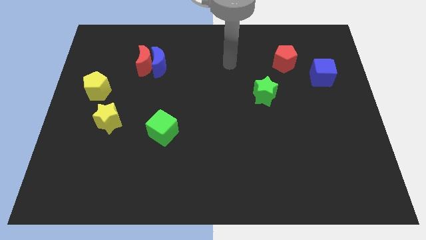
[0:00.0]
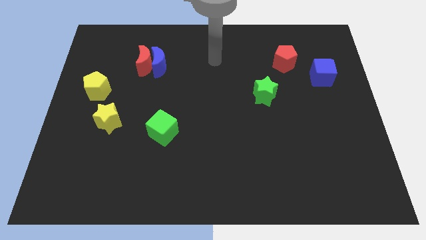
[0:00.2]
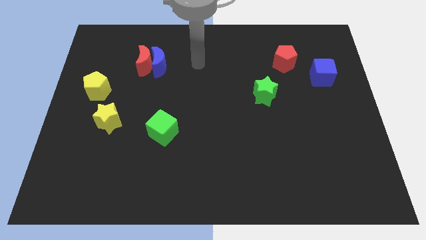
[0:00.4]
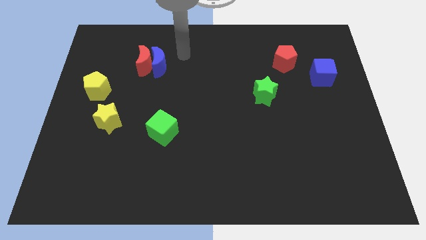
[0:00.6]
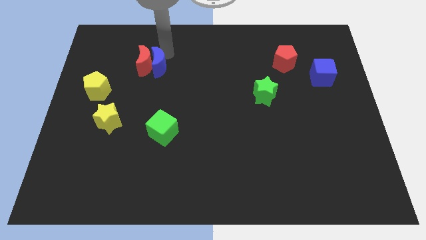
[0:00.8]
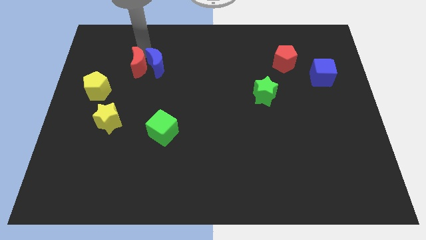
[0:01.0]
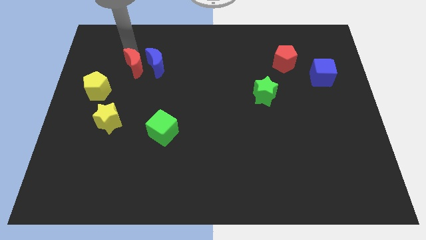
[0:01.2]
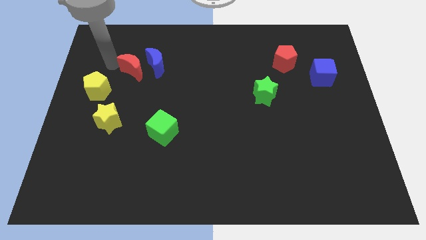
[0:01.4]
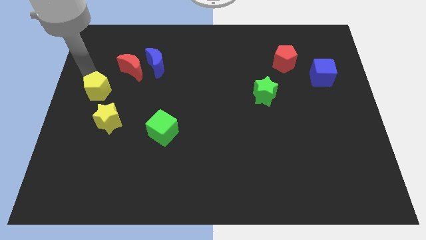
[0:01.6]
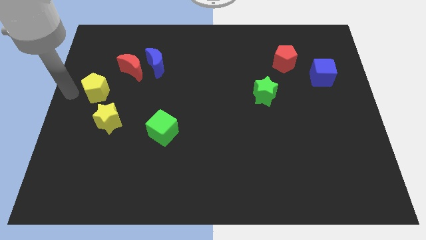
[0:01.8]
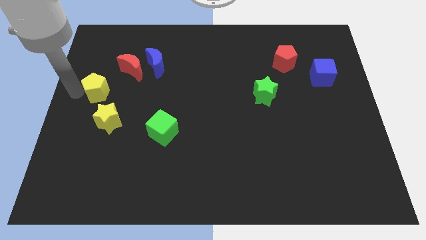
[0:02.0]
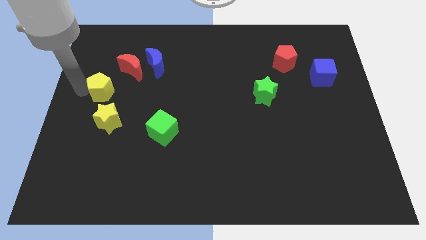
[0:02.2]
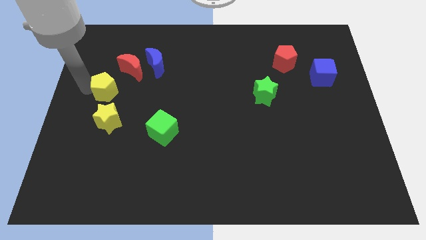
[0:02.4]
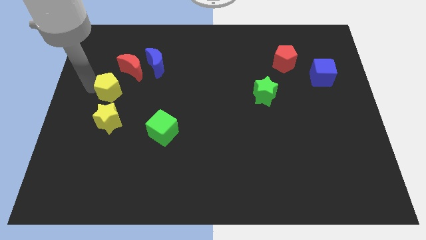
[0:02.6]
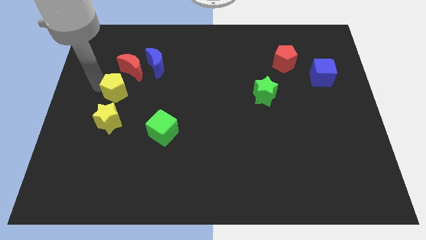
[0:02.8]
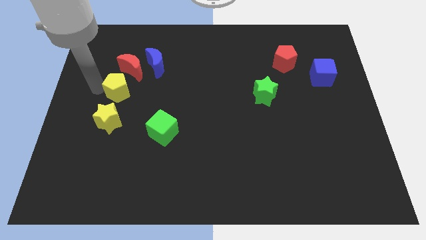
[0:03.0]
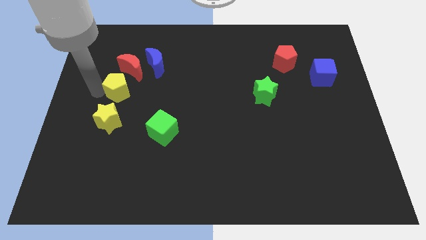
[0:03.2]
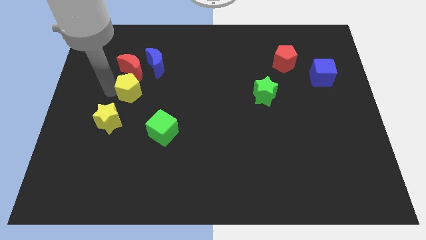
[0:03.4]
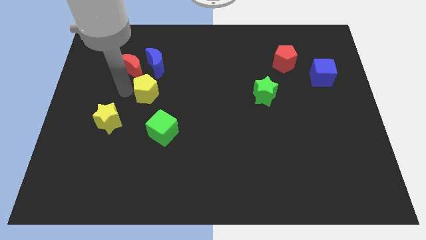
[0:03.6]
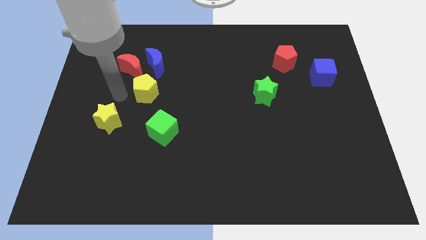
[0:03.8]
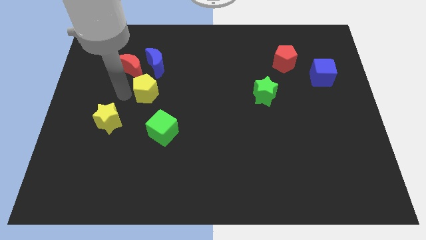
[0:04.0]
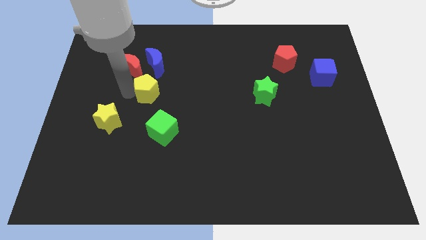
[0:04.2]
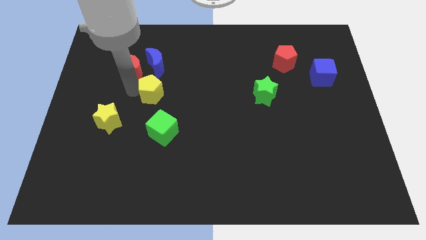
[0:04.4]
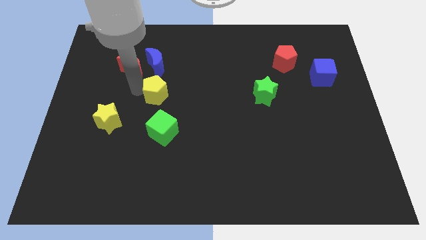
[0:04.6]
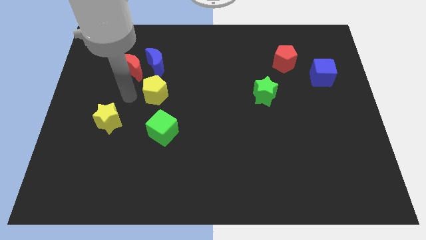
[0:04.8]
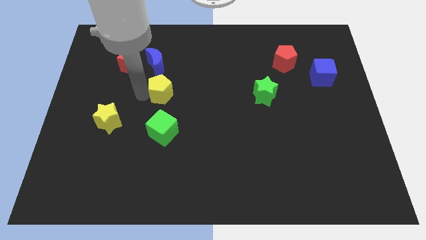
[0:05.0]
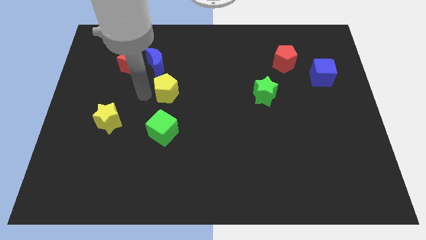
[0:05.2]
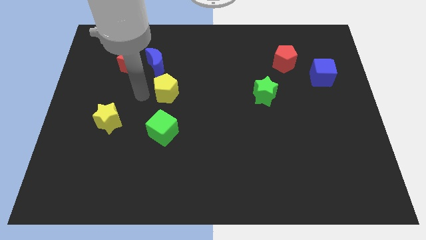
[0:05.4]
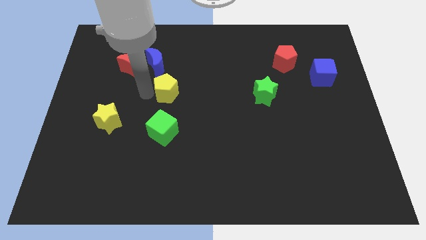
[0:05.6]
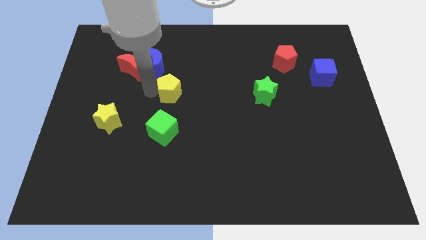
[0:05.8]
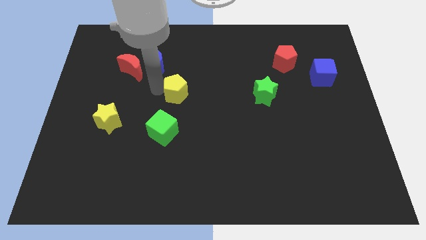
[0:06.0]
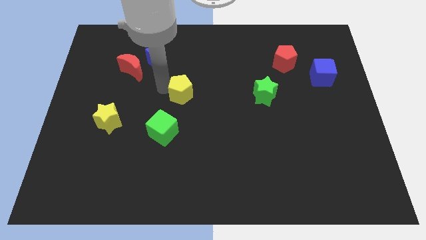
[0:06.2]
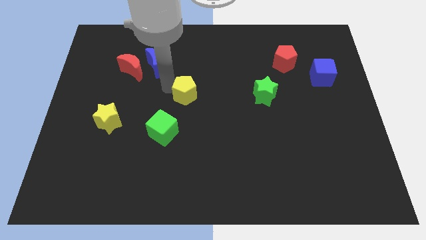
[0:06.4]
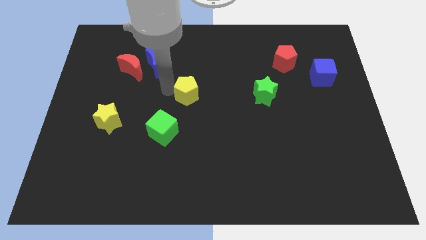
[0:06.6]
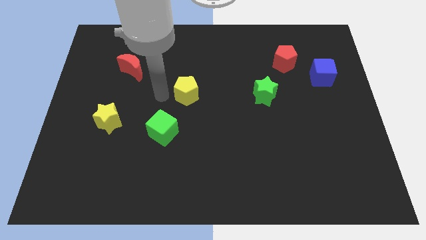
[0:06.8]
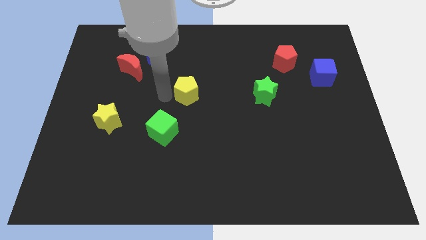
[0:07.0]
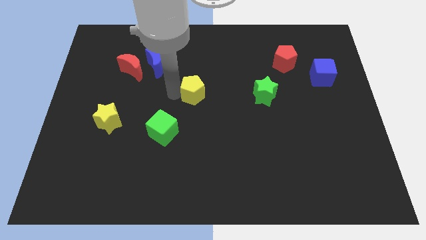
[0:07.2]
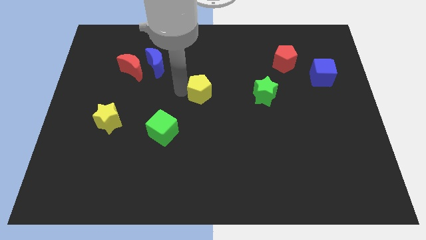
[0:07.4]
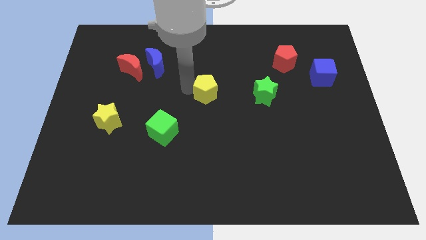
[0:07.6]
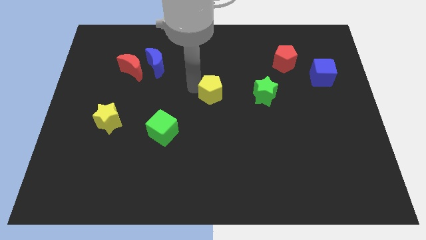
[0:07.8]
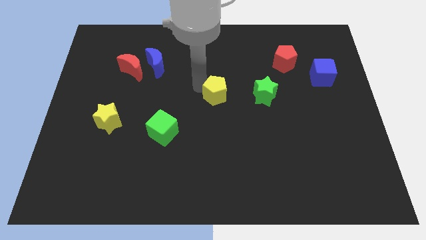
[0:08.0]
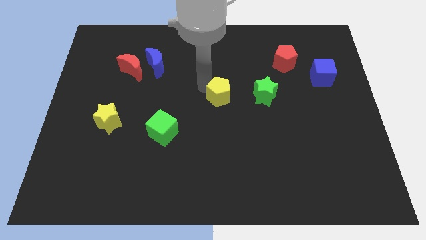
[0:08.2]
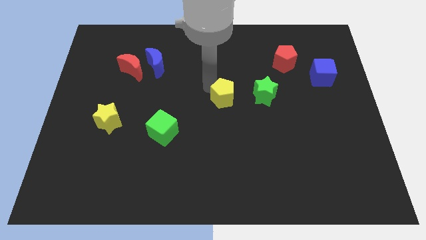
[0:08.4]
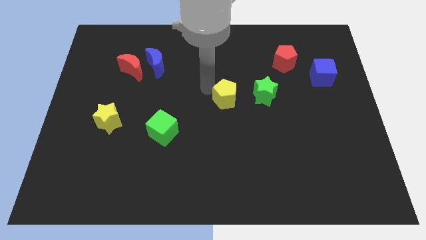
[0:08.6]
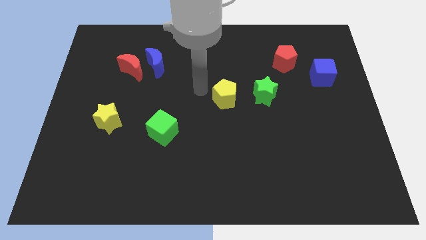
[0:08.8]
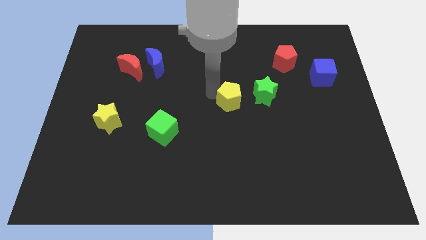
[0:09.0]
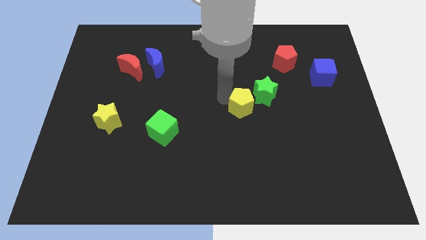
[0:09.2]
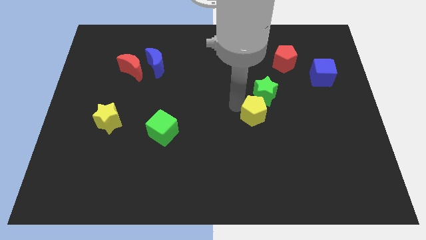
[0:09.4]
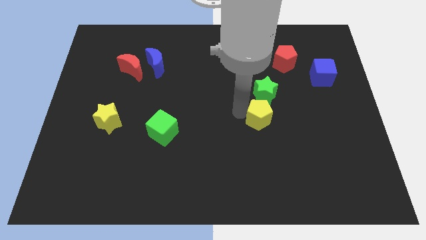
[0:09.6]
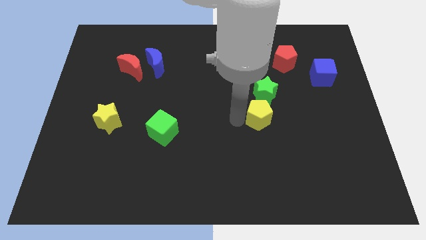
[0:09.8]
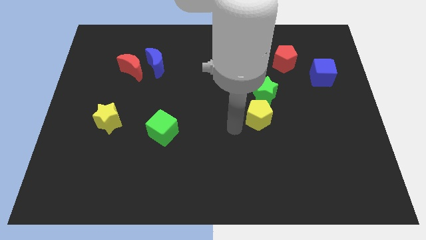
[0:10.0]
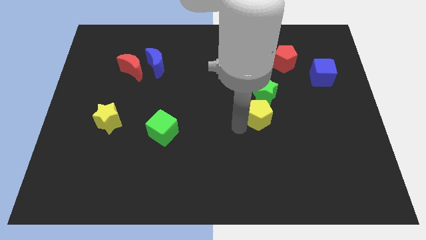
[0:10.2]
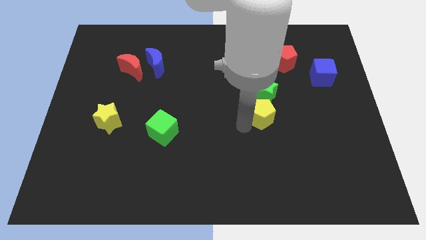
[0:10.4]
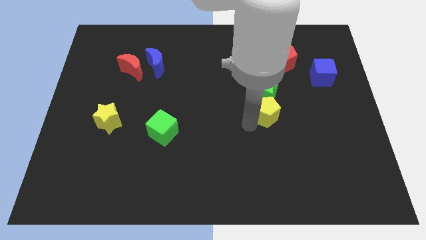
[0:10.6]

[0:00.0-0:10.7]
push the yellow pentagon to the bottom right side of the green star

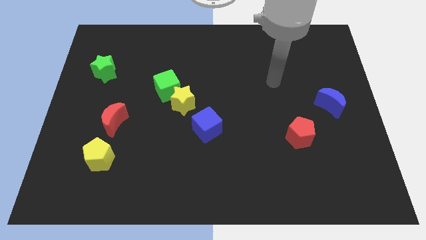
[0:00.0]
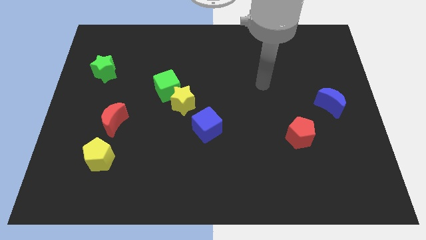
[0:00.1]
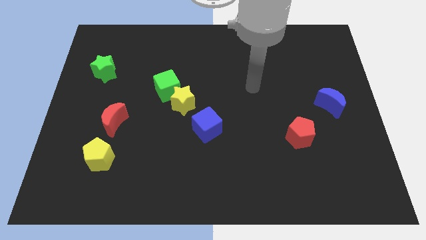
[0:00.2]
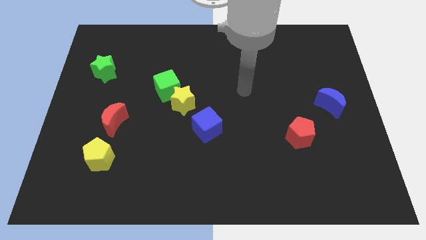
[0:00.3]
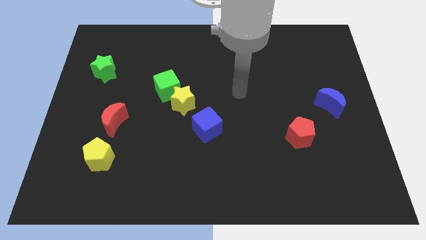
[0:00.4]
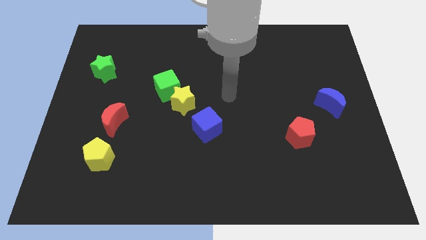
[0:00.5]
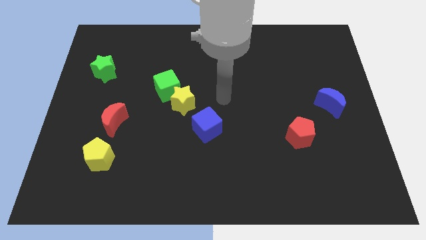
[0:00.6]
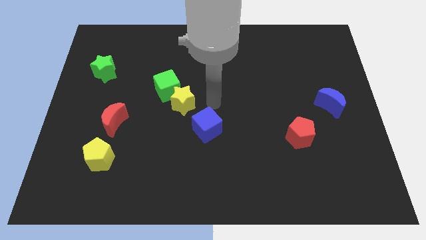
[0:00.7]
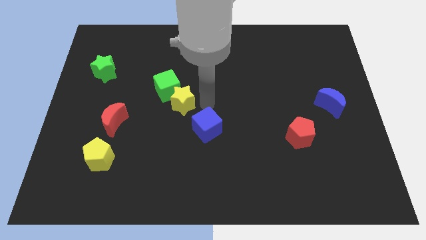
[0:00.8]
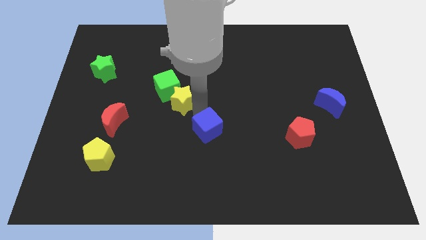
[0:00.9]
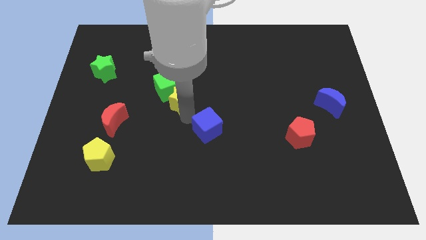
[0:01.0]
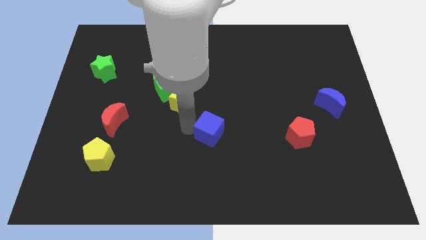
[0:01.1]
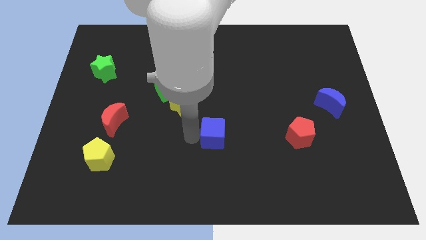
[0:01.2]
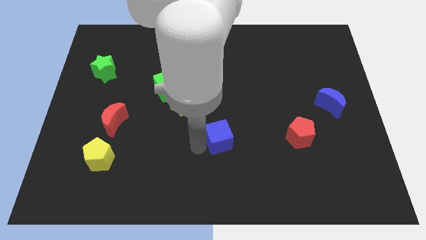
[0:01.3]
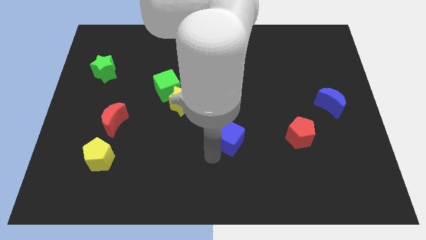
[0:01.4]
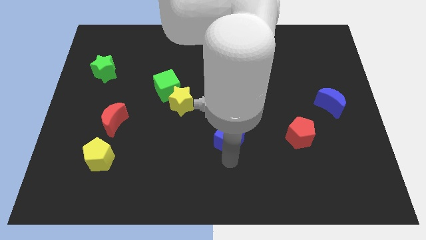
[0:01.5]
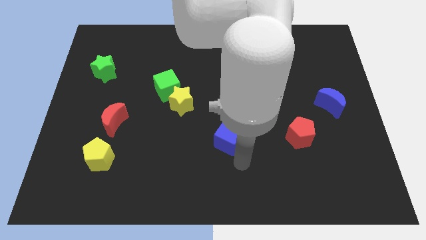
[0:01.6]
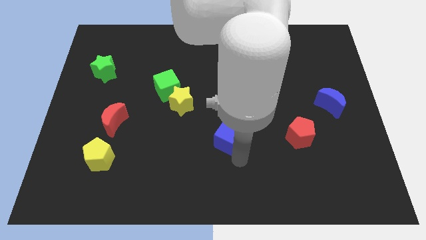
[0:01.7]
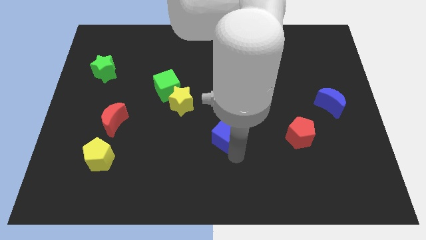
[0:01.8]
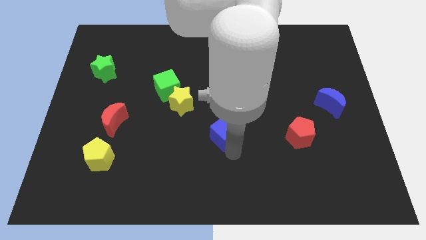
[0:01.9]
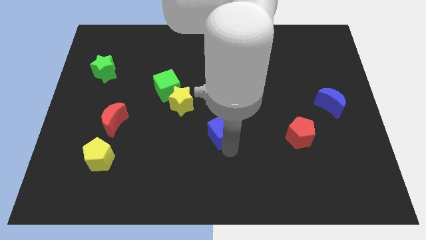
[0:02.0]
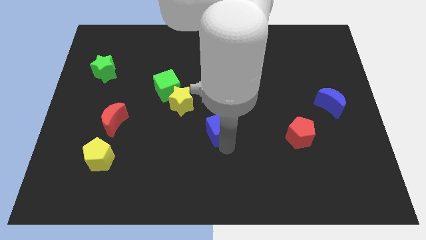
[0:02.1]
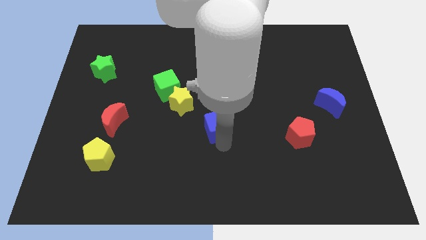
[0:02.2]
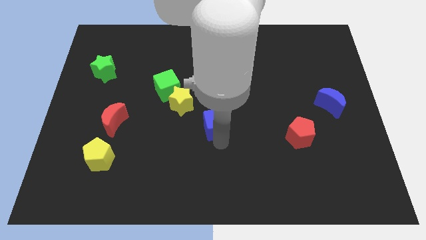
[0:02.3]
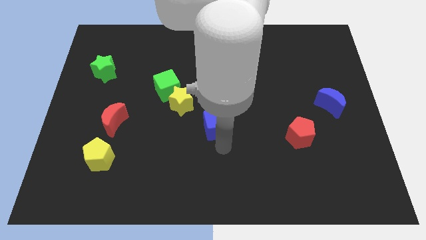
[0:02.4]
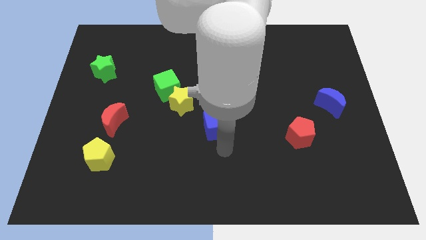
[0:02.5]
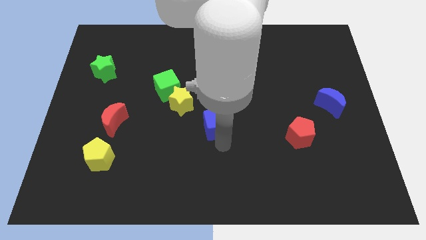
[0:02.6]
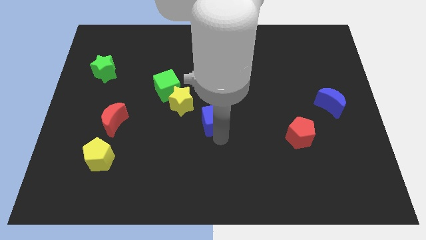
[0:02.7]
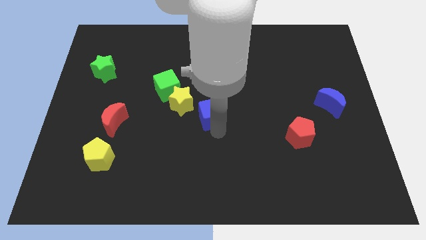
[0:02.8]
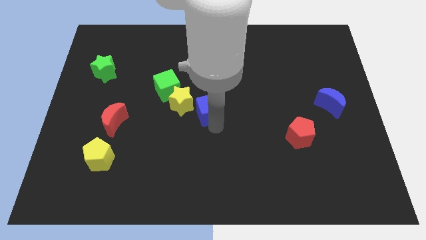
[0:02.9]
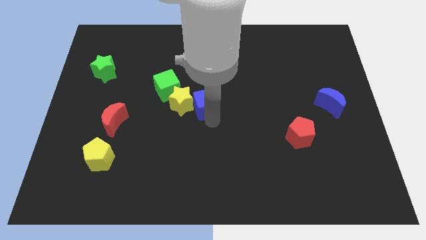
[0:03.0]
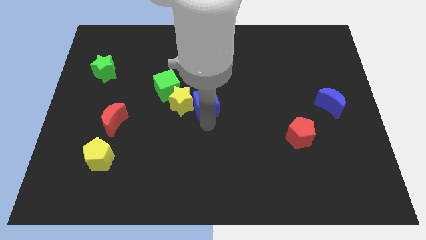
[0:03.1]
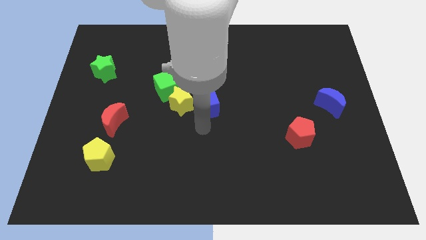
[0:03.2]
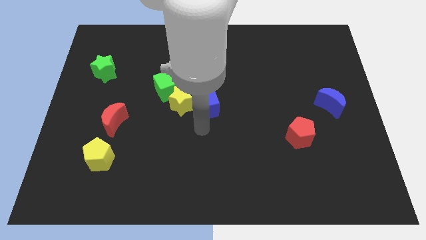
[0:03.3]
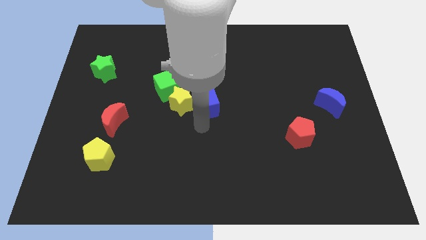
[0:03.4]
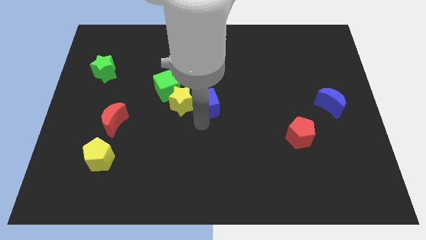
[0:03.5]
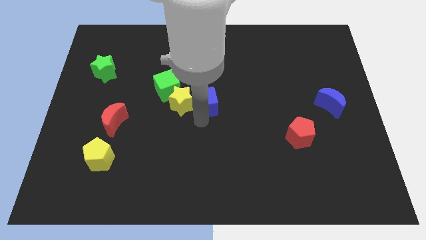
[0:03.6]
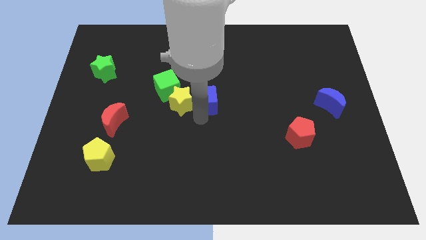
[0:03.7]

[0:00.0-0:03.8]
push the blue cube to the right side of the green cube
